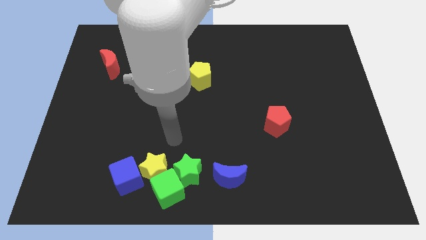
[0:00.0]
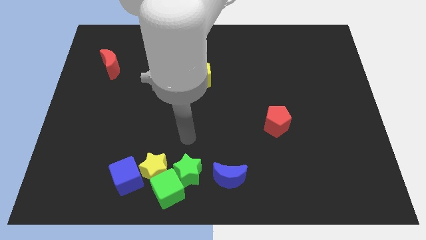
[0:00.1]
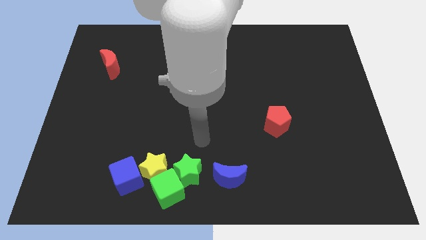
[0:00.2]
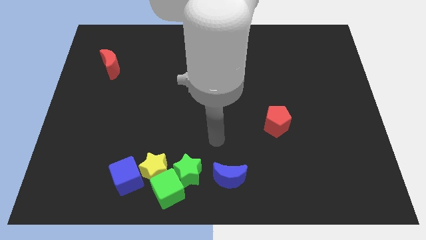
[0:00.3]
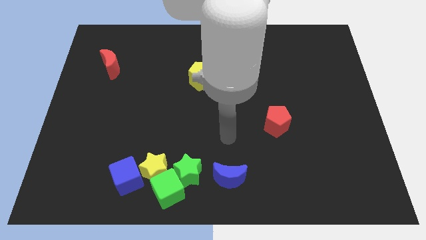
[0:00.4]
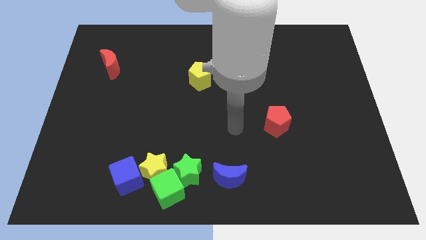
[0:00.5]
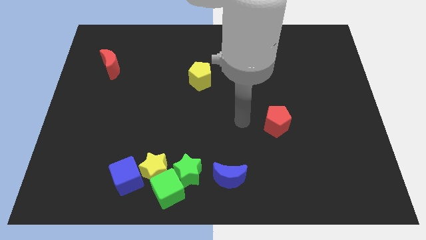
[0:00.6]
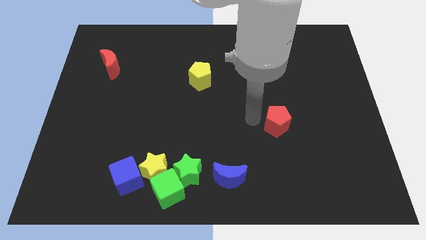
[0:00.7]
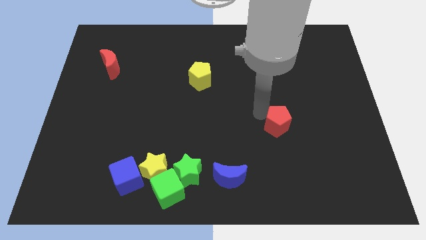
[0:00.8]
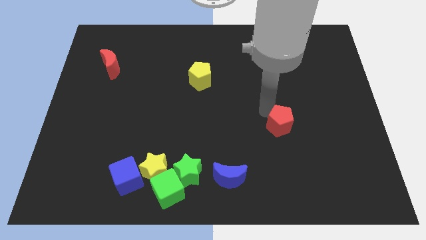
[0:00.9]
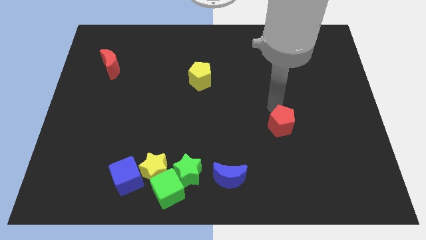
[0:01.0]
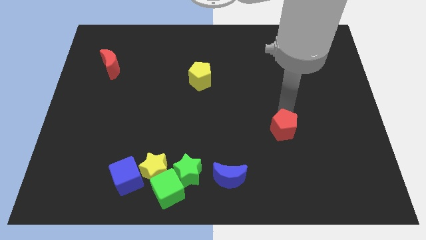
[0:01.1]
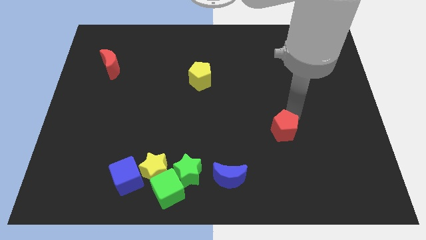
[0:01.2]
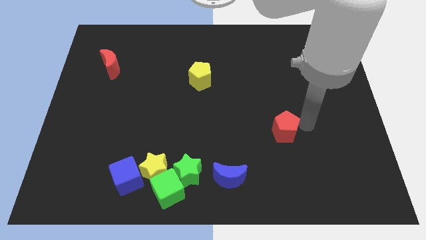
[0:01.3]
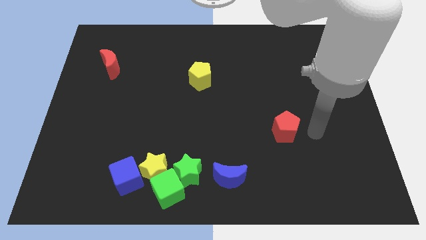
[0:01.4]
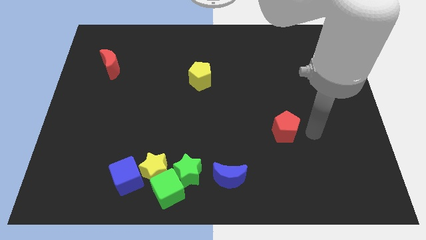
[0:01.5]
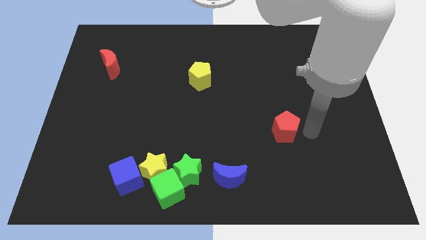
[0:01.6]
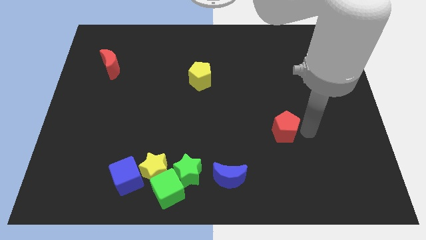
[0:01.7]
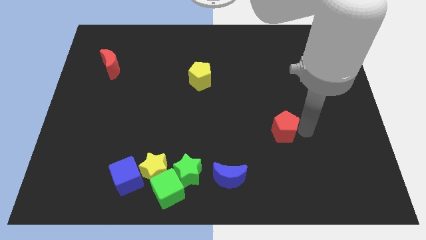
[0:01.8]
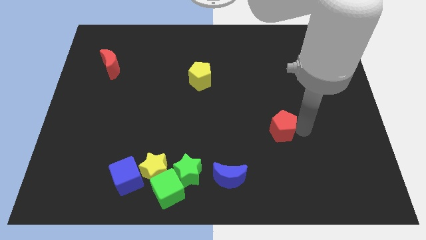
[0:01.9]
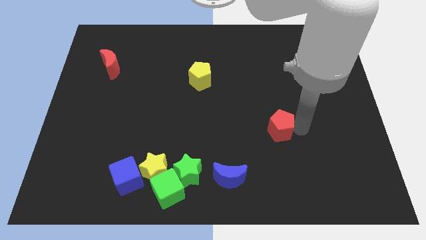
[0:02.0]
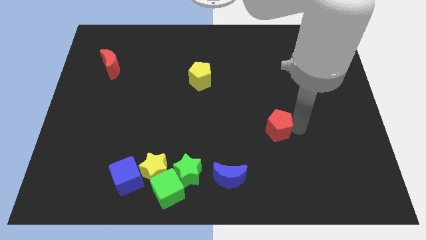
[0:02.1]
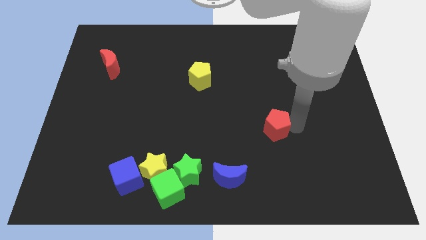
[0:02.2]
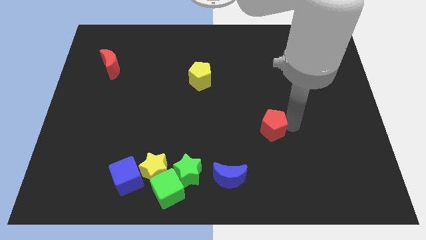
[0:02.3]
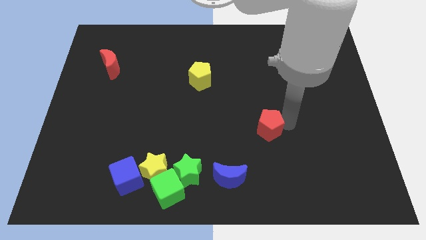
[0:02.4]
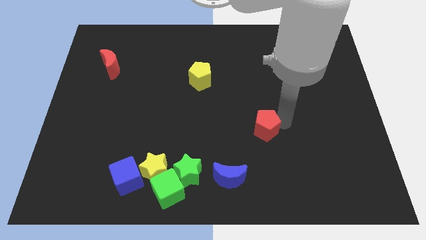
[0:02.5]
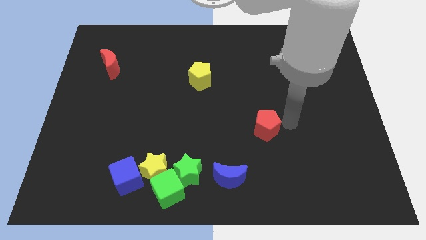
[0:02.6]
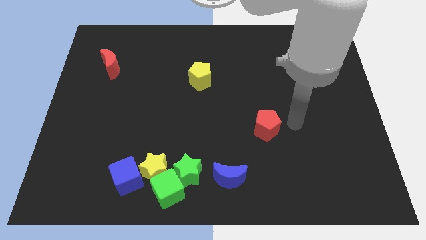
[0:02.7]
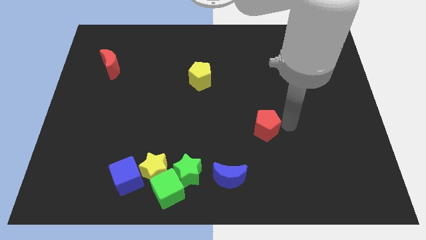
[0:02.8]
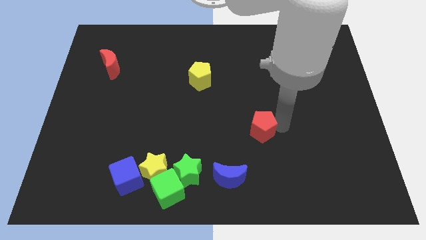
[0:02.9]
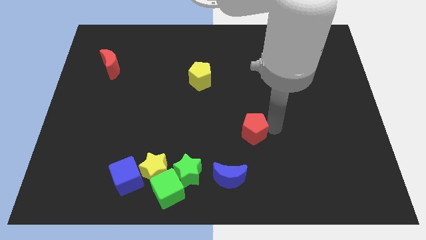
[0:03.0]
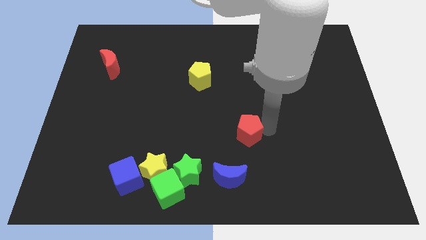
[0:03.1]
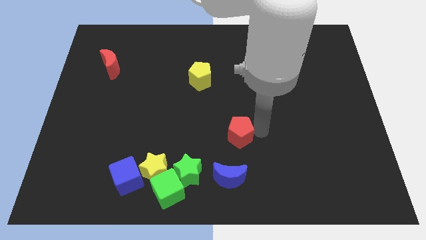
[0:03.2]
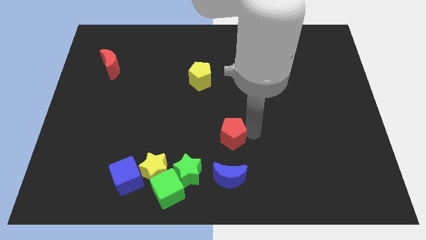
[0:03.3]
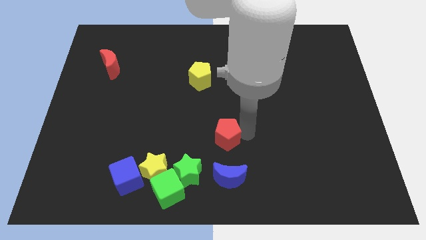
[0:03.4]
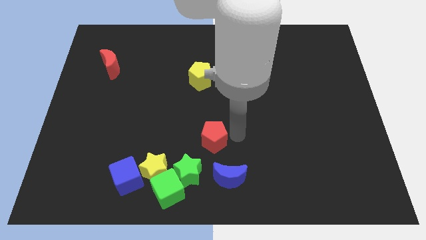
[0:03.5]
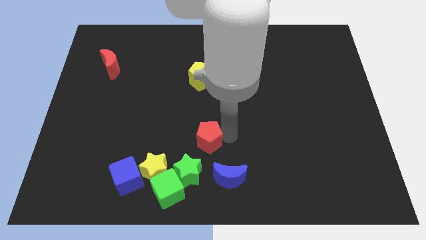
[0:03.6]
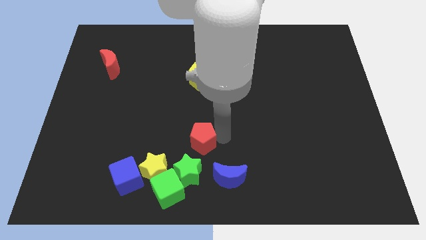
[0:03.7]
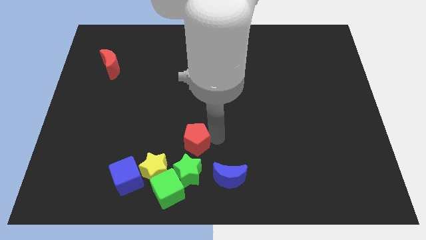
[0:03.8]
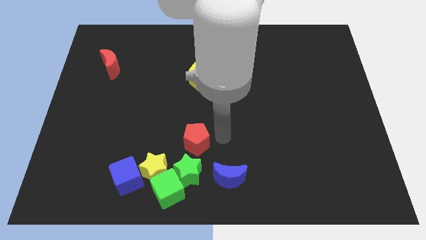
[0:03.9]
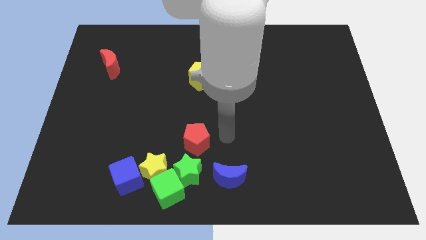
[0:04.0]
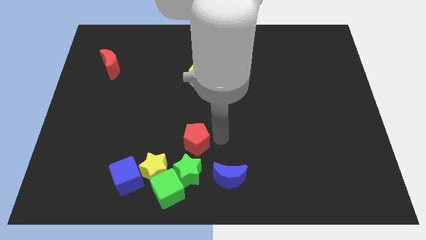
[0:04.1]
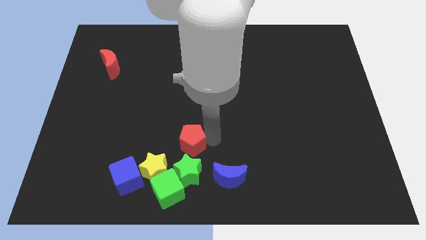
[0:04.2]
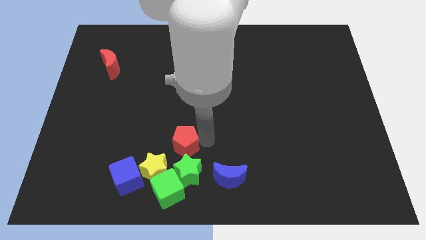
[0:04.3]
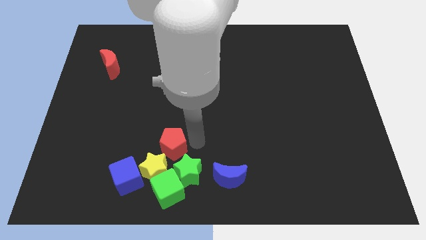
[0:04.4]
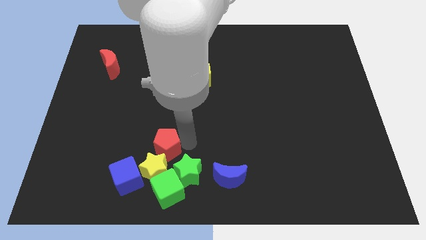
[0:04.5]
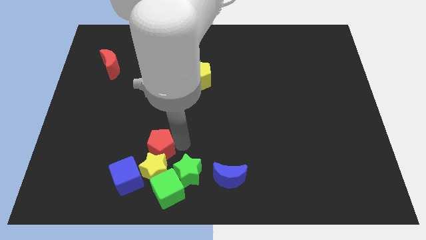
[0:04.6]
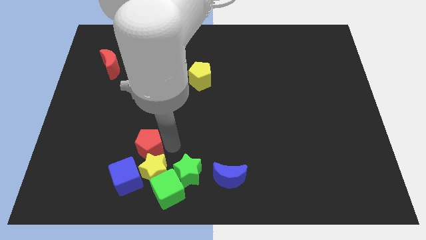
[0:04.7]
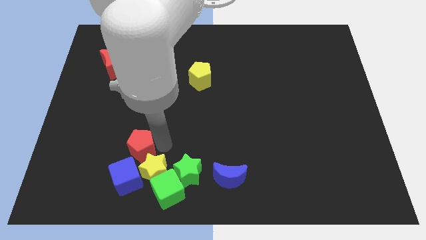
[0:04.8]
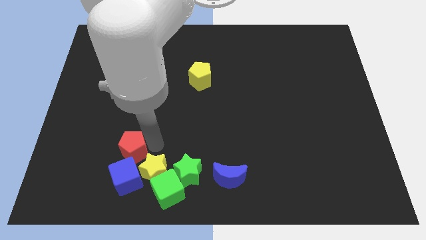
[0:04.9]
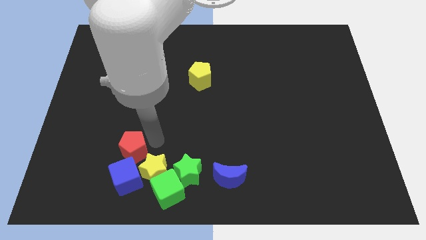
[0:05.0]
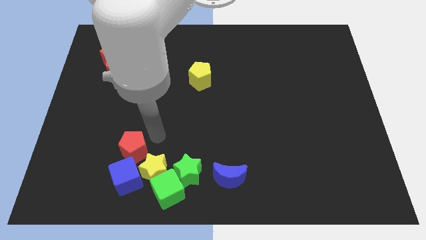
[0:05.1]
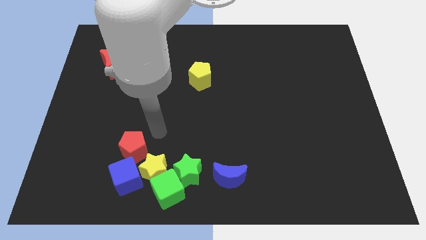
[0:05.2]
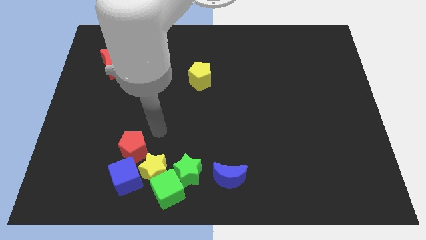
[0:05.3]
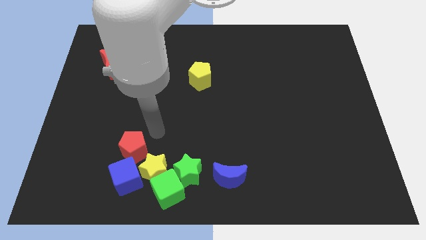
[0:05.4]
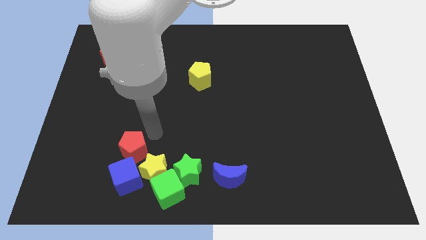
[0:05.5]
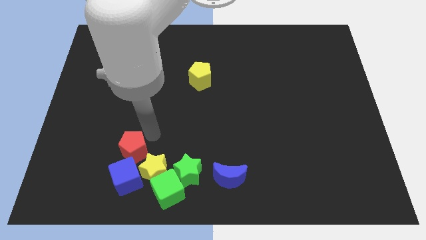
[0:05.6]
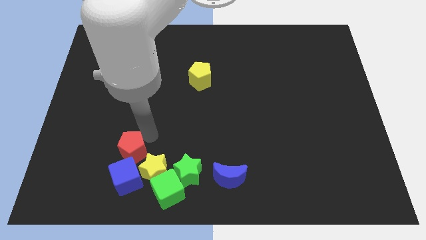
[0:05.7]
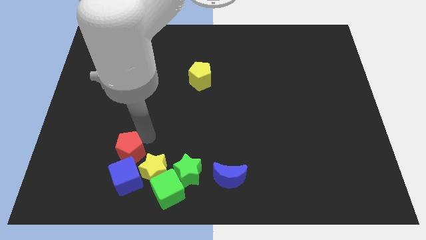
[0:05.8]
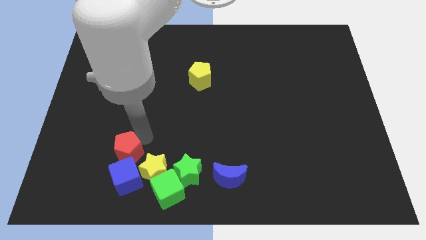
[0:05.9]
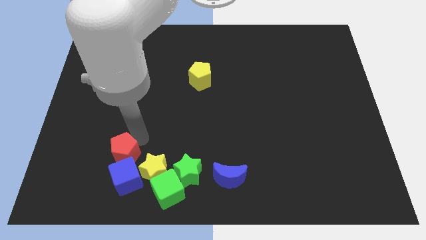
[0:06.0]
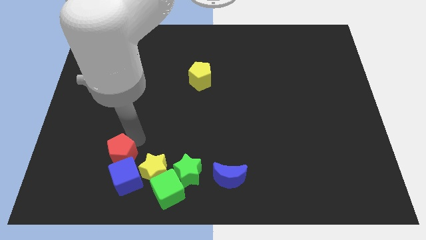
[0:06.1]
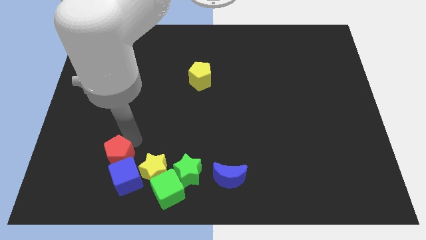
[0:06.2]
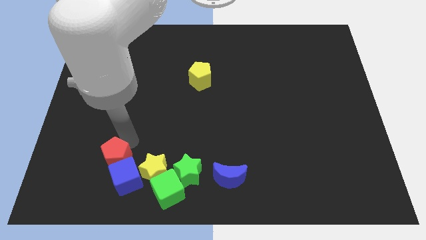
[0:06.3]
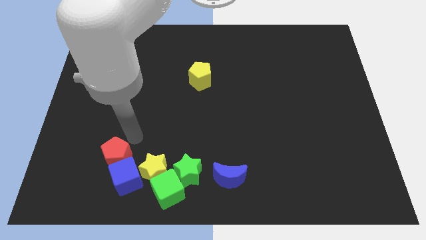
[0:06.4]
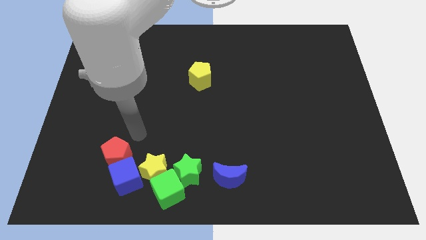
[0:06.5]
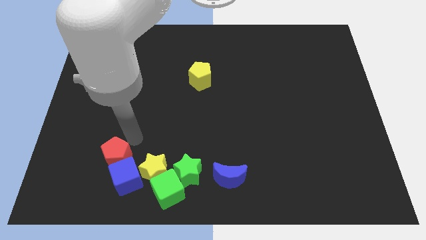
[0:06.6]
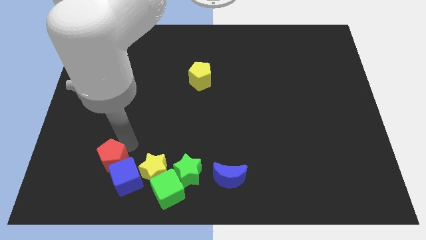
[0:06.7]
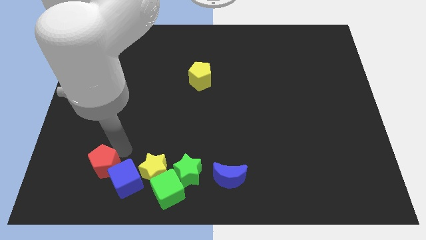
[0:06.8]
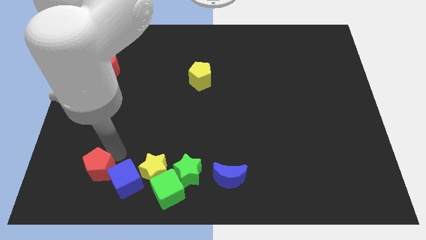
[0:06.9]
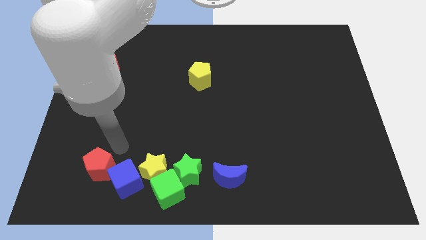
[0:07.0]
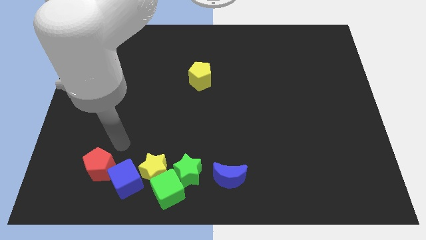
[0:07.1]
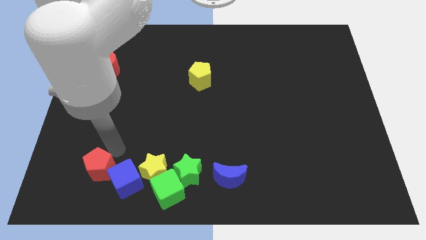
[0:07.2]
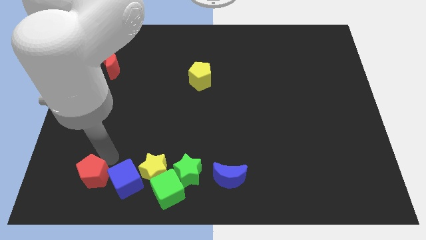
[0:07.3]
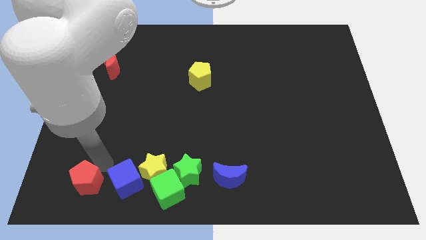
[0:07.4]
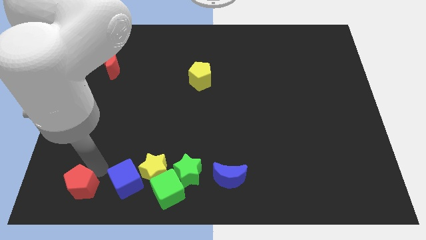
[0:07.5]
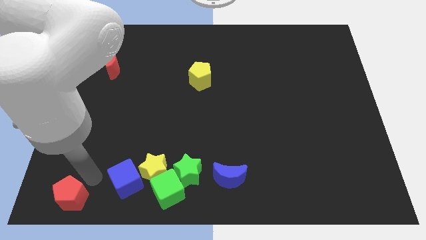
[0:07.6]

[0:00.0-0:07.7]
put the red pentagon to the bottom left
